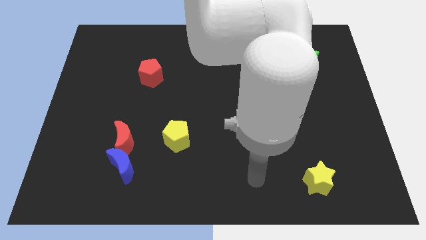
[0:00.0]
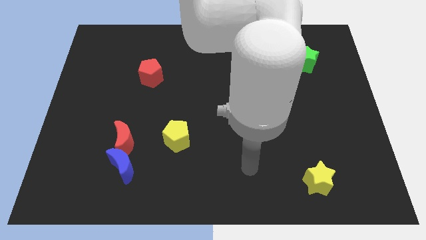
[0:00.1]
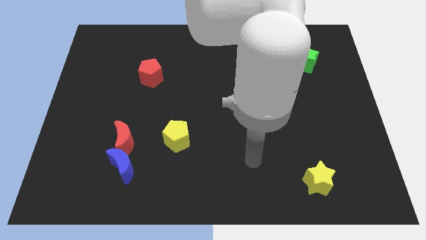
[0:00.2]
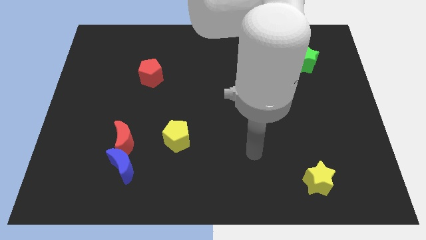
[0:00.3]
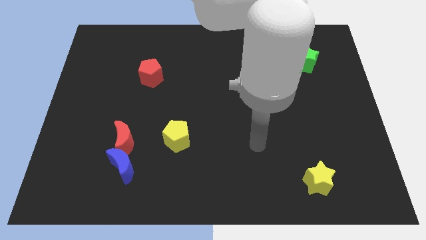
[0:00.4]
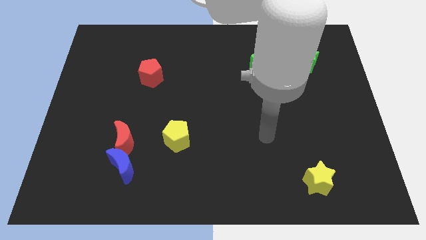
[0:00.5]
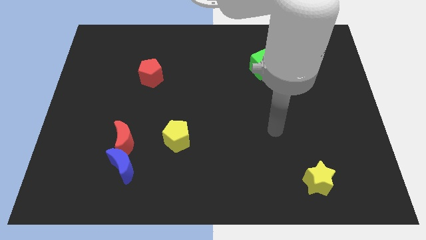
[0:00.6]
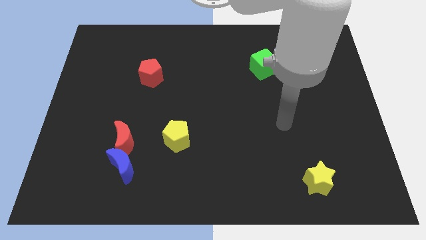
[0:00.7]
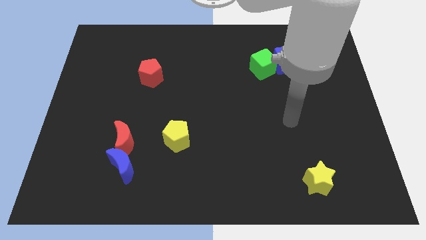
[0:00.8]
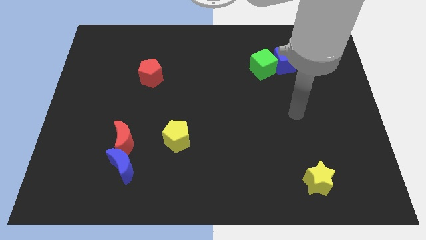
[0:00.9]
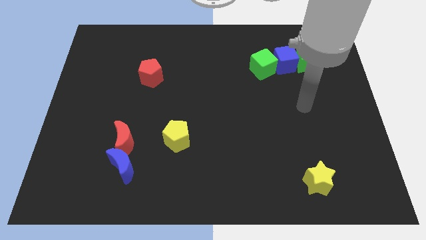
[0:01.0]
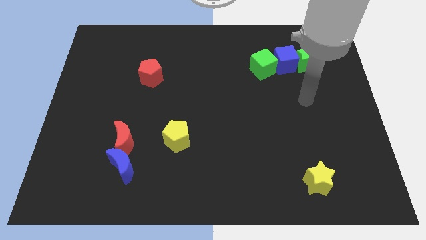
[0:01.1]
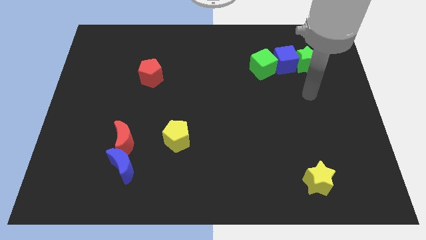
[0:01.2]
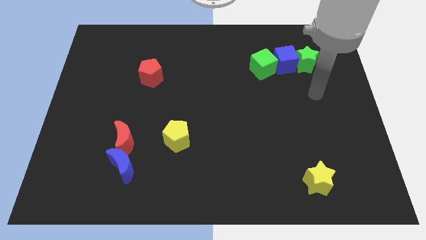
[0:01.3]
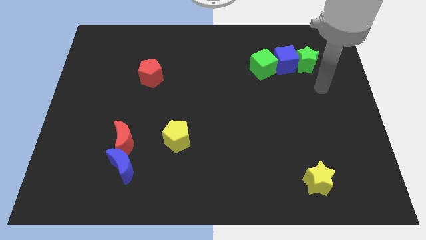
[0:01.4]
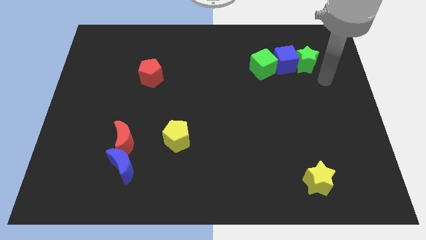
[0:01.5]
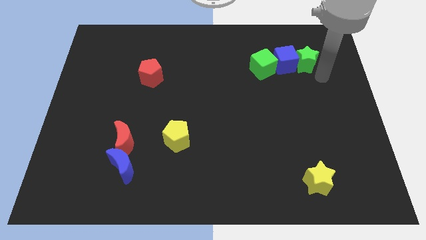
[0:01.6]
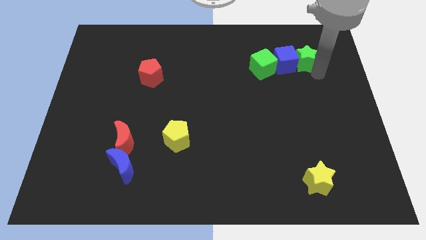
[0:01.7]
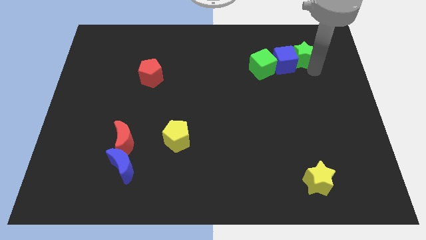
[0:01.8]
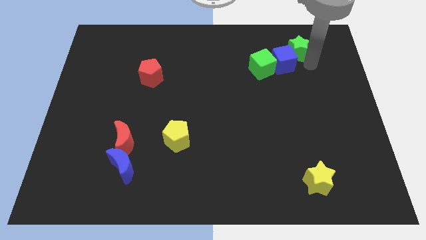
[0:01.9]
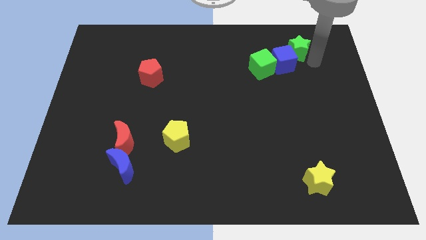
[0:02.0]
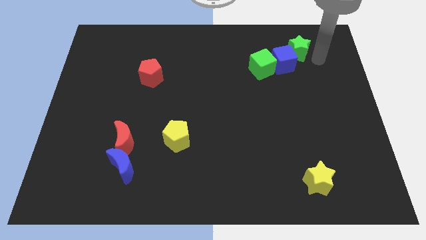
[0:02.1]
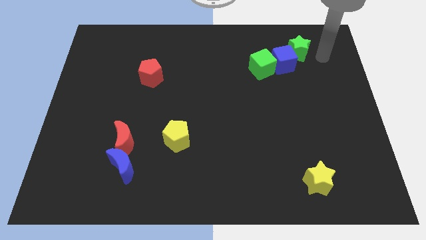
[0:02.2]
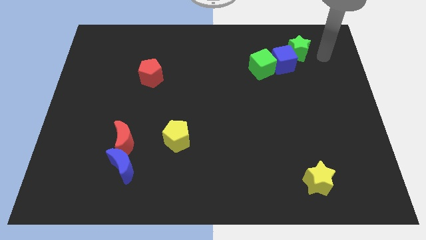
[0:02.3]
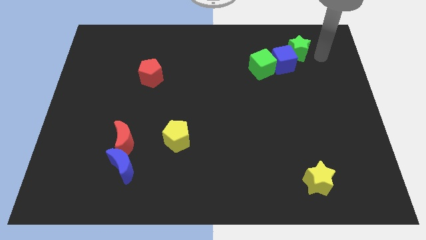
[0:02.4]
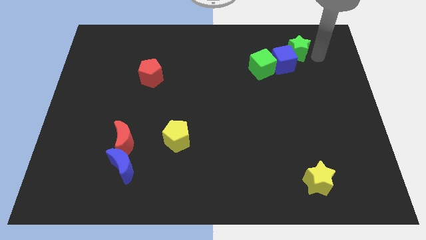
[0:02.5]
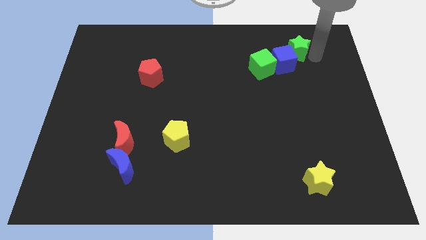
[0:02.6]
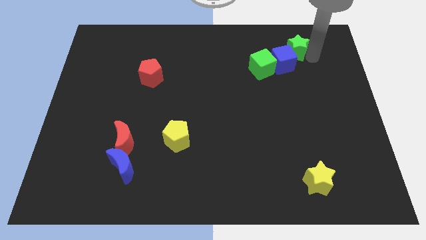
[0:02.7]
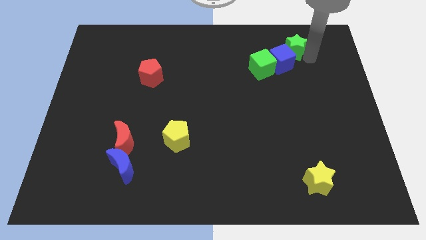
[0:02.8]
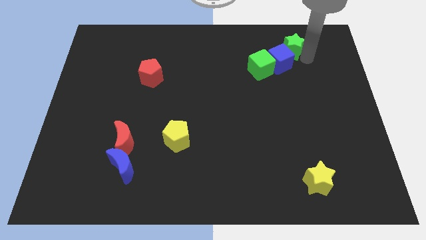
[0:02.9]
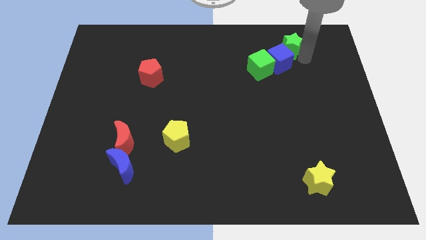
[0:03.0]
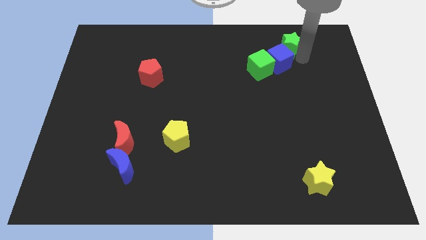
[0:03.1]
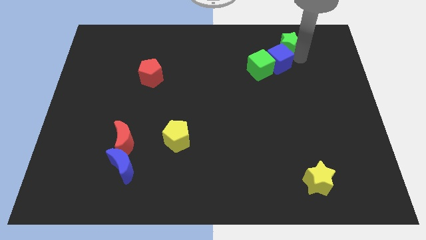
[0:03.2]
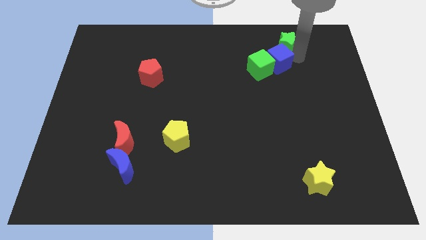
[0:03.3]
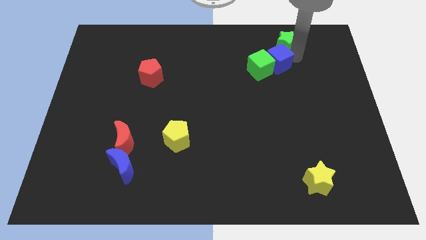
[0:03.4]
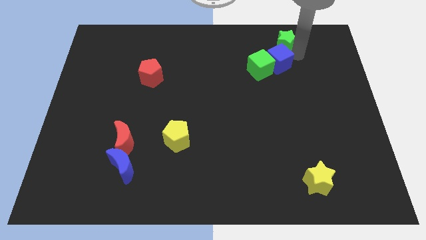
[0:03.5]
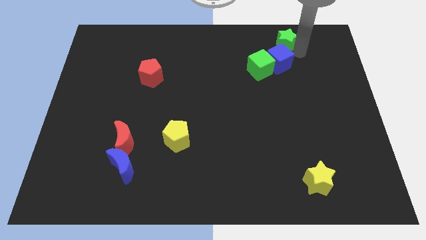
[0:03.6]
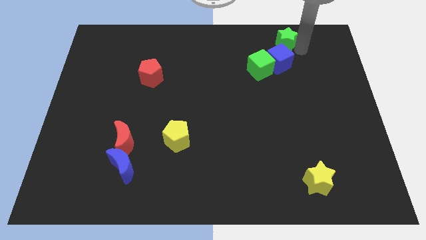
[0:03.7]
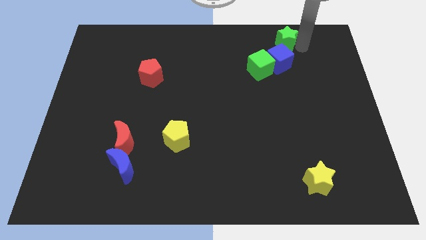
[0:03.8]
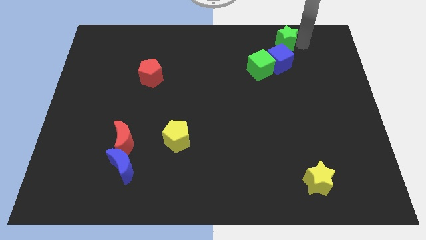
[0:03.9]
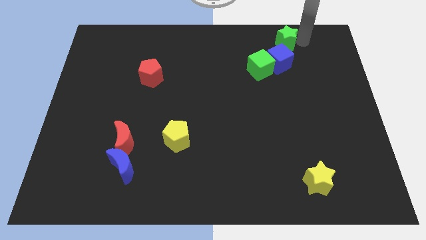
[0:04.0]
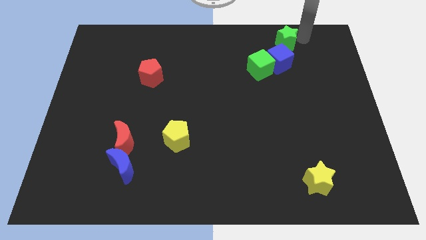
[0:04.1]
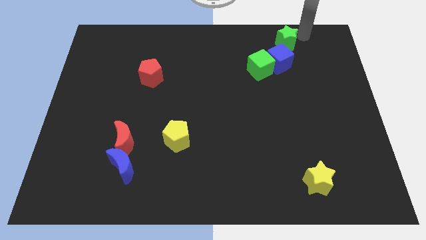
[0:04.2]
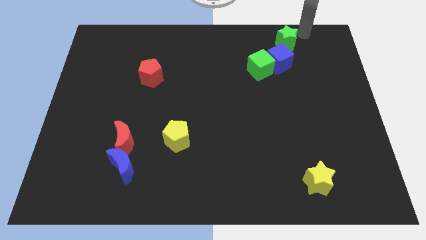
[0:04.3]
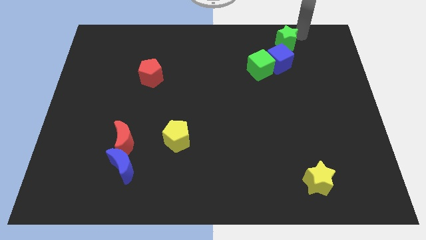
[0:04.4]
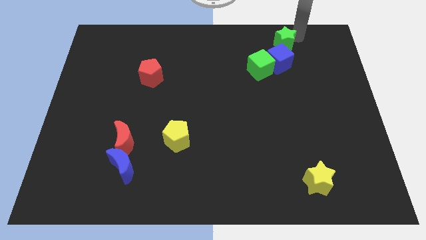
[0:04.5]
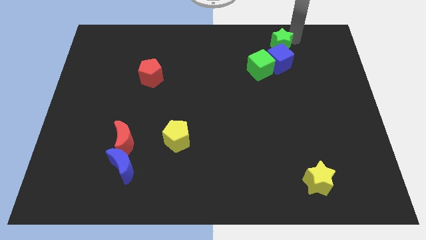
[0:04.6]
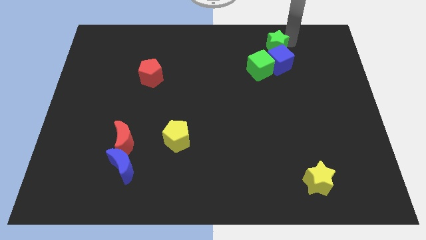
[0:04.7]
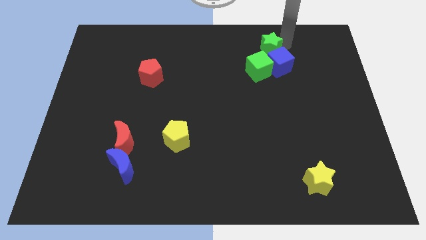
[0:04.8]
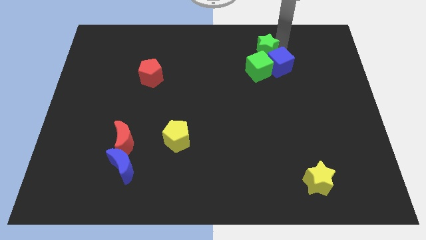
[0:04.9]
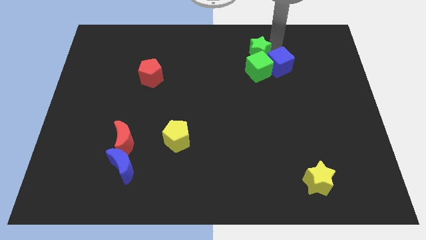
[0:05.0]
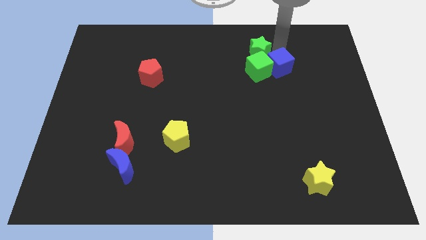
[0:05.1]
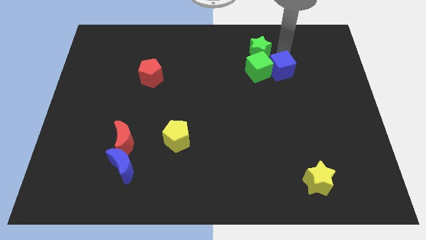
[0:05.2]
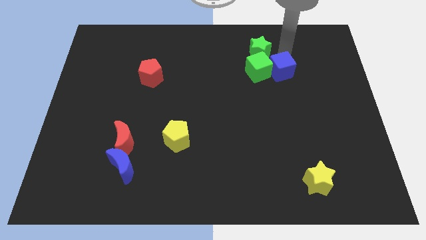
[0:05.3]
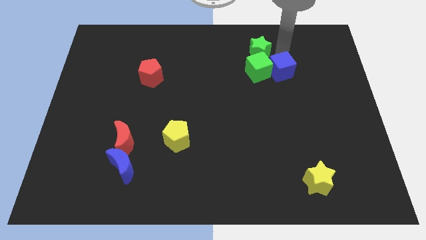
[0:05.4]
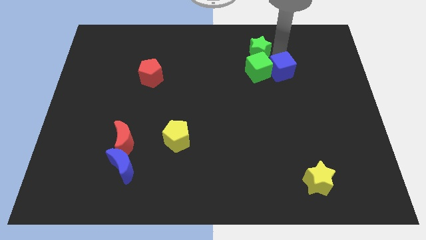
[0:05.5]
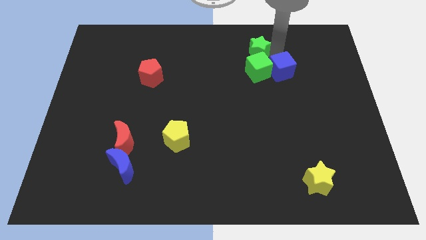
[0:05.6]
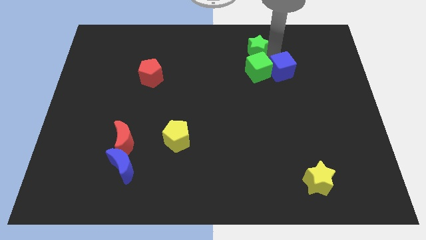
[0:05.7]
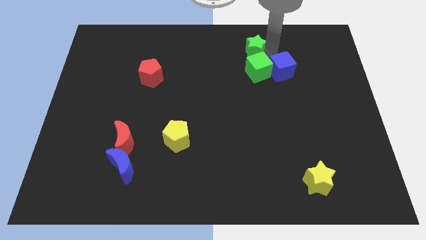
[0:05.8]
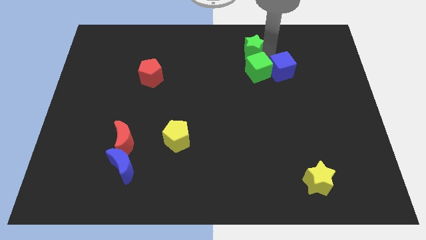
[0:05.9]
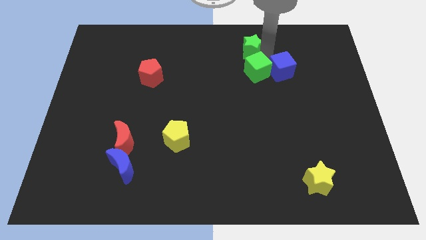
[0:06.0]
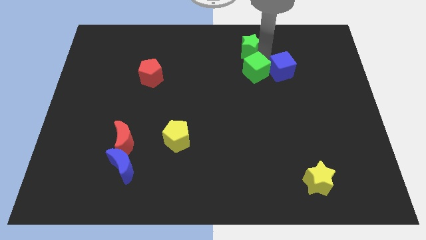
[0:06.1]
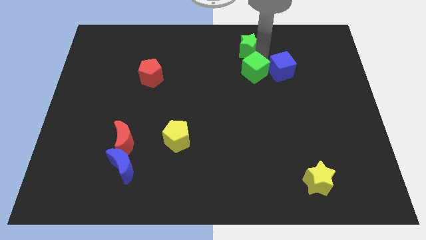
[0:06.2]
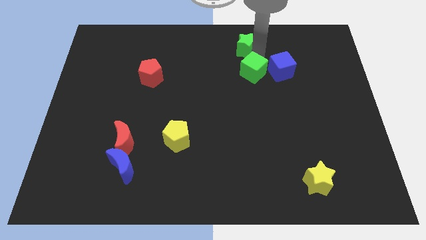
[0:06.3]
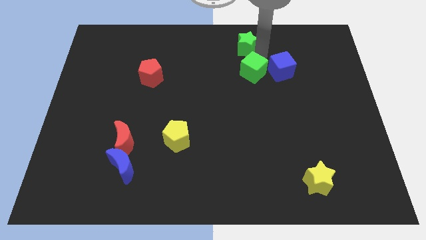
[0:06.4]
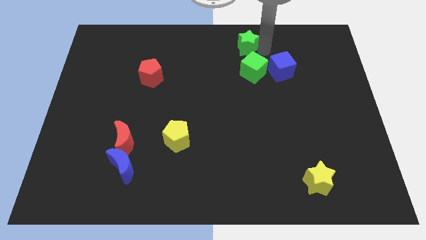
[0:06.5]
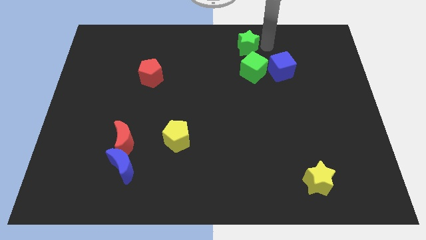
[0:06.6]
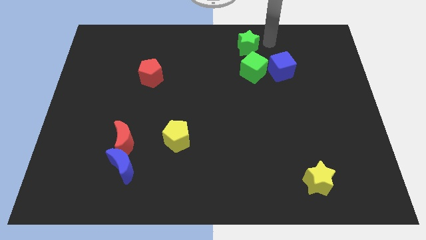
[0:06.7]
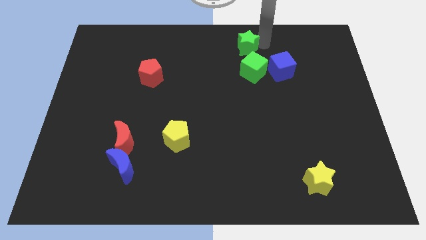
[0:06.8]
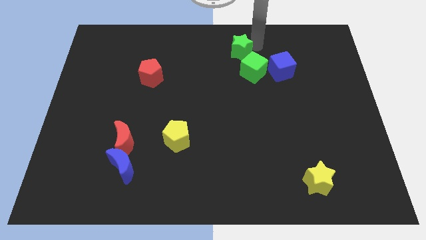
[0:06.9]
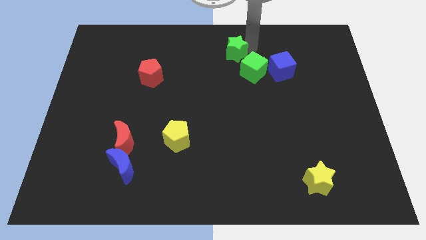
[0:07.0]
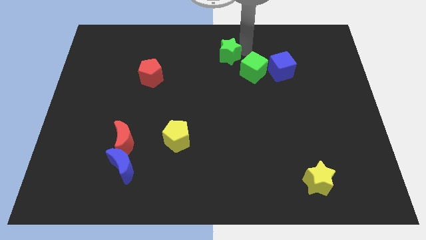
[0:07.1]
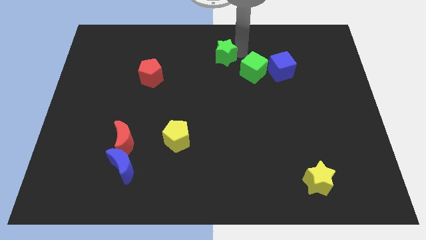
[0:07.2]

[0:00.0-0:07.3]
slide the green star to the left

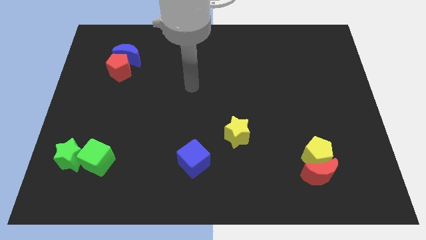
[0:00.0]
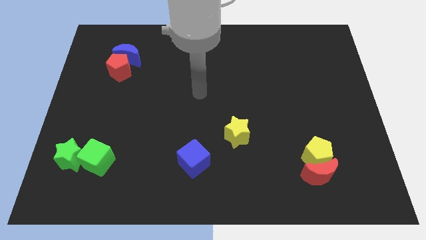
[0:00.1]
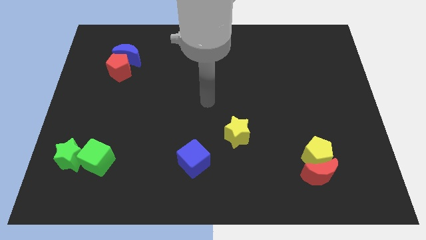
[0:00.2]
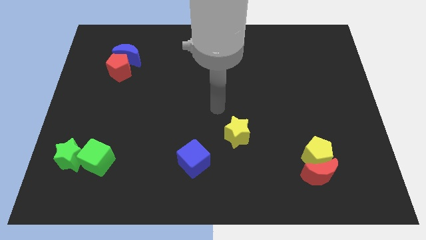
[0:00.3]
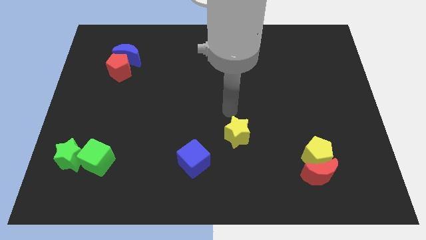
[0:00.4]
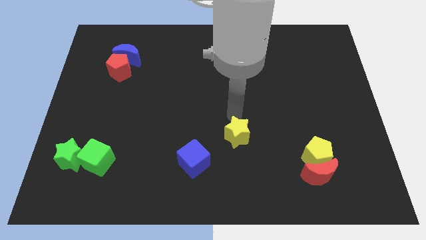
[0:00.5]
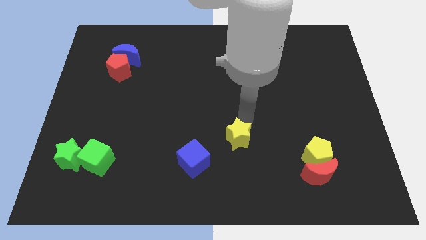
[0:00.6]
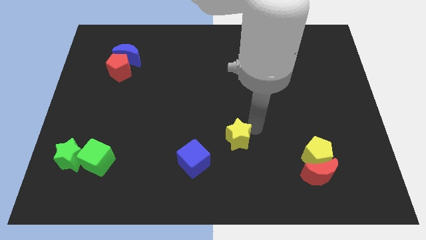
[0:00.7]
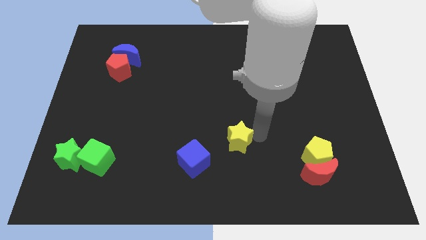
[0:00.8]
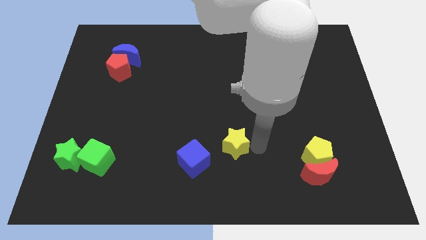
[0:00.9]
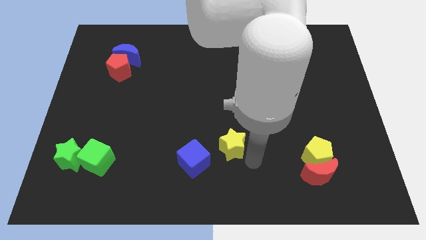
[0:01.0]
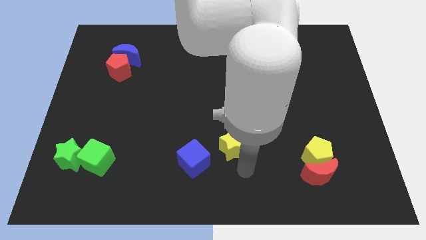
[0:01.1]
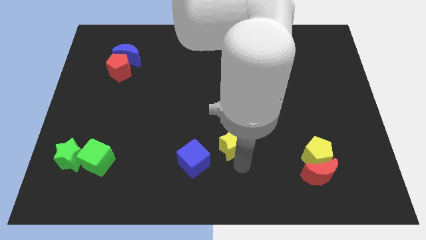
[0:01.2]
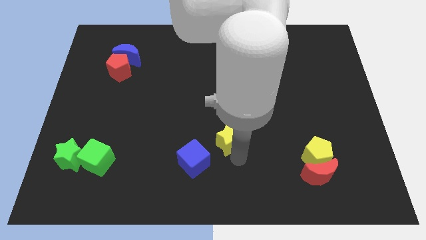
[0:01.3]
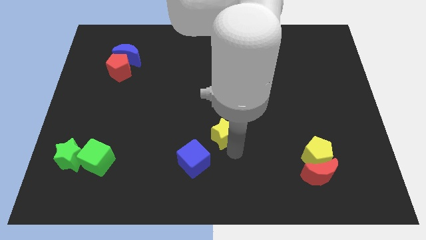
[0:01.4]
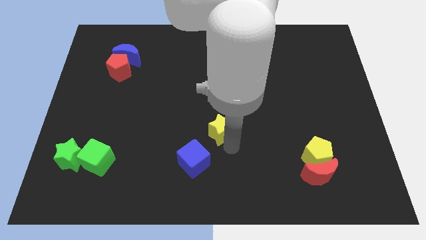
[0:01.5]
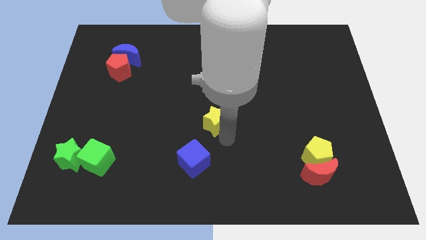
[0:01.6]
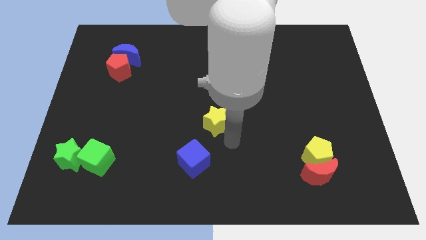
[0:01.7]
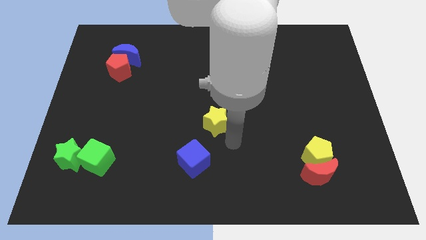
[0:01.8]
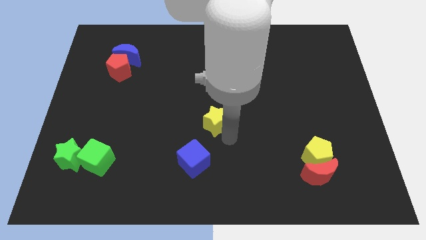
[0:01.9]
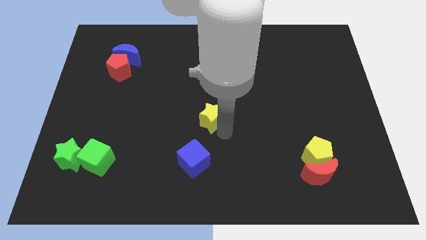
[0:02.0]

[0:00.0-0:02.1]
slide the yellow star diagonally up and to the left a little
